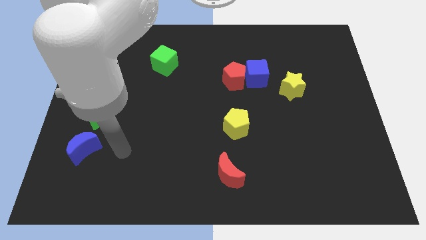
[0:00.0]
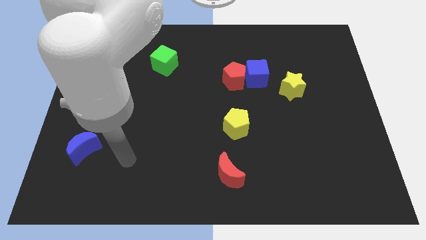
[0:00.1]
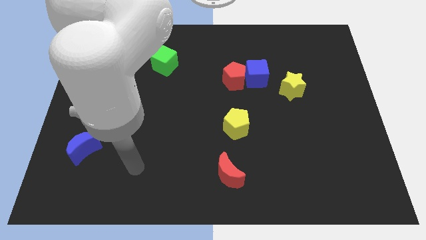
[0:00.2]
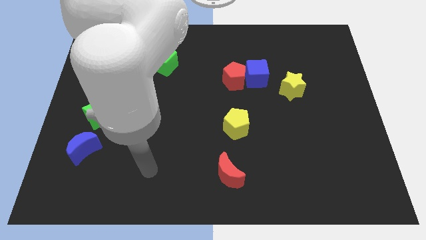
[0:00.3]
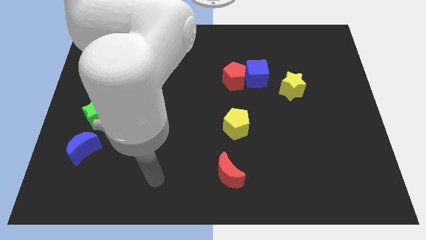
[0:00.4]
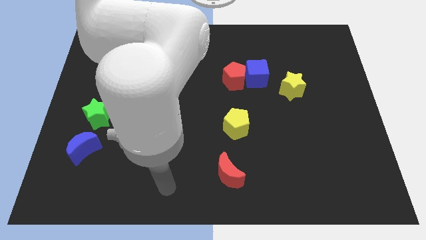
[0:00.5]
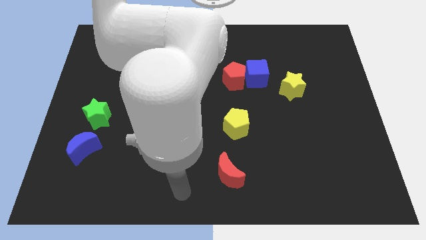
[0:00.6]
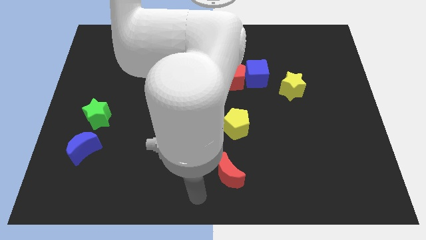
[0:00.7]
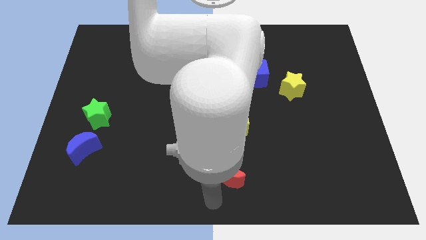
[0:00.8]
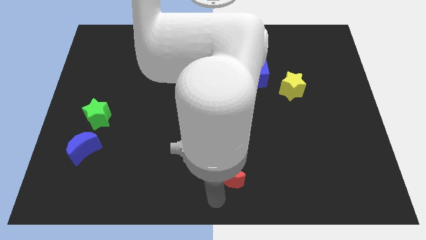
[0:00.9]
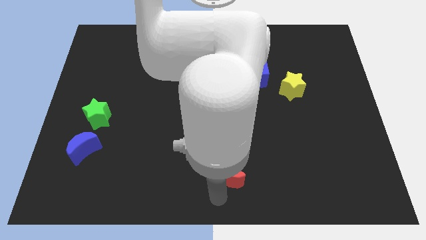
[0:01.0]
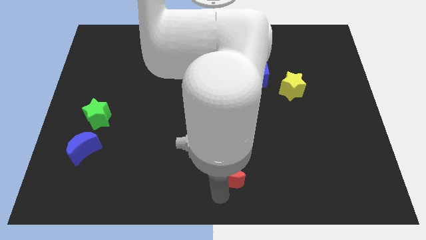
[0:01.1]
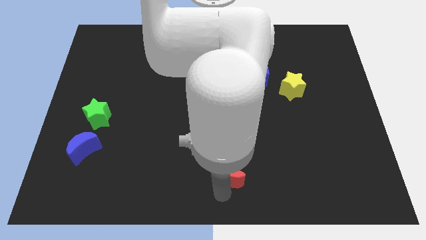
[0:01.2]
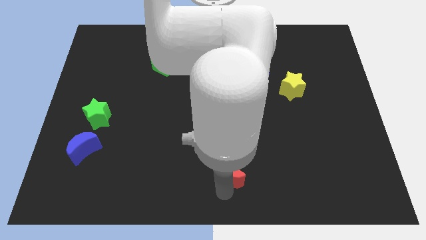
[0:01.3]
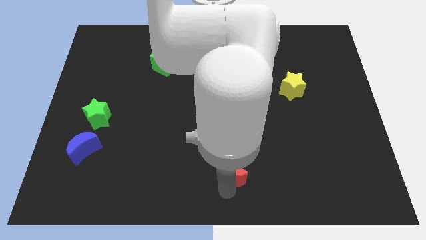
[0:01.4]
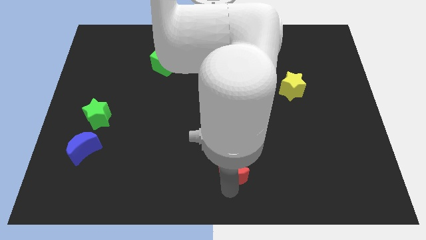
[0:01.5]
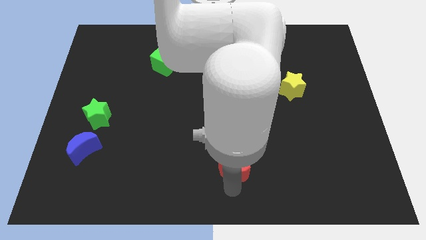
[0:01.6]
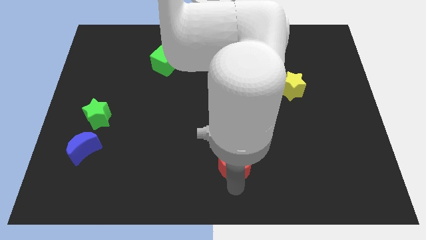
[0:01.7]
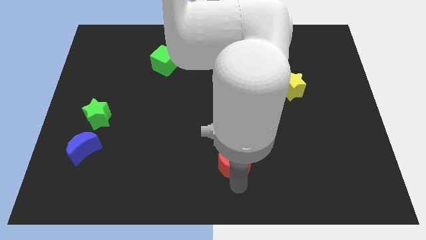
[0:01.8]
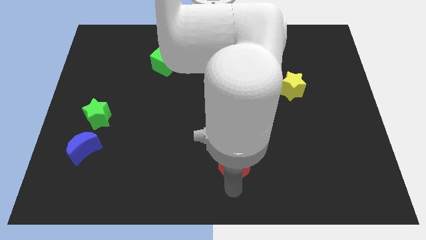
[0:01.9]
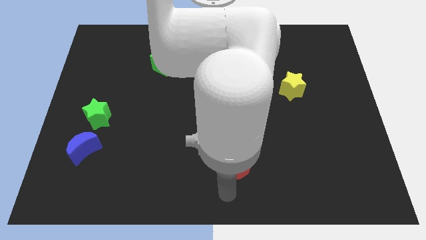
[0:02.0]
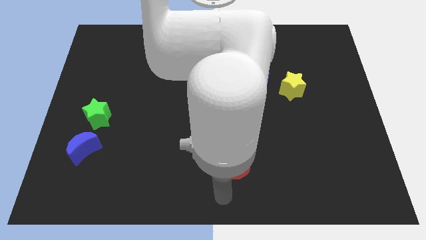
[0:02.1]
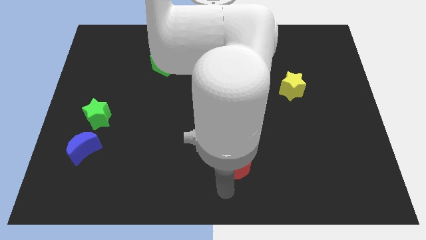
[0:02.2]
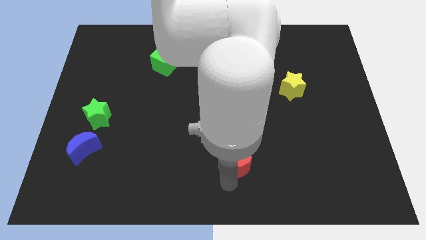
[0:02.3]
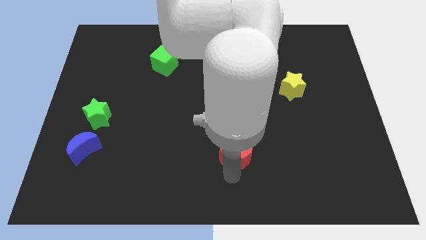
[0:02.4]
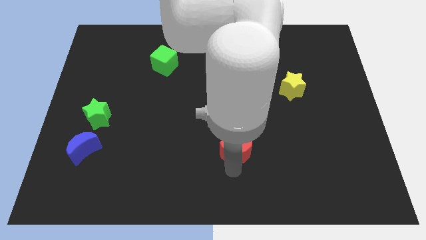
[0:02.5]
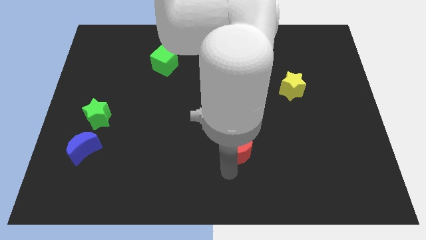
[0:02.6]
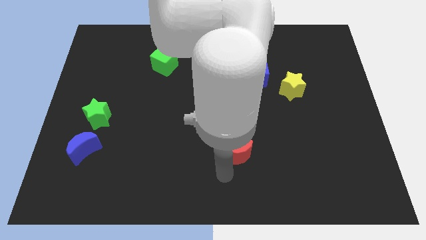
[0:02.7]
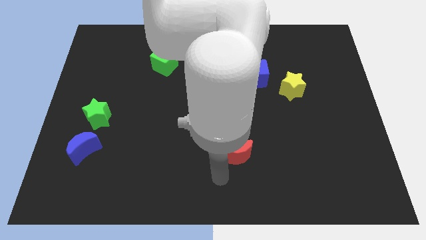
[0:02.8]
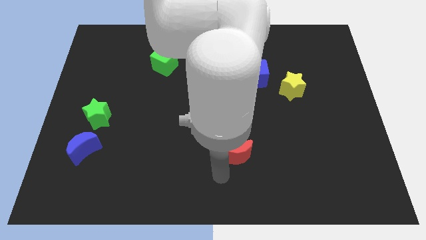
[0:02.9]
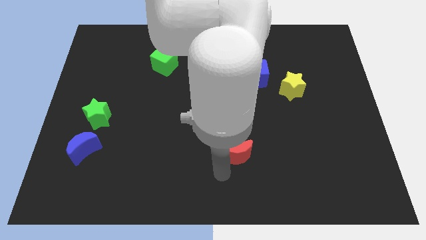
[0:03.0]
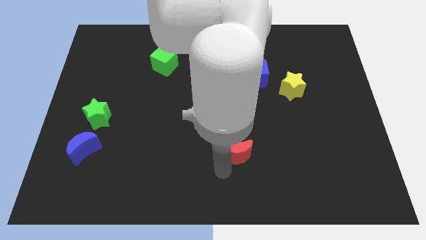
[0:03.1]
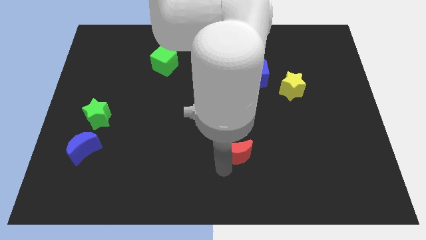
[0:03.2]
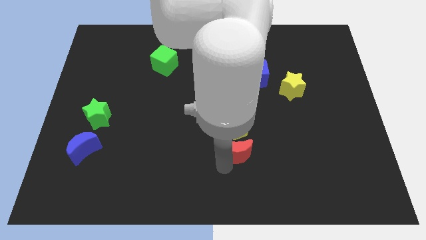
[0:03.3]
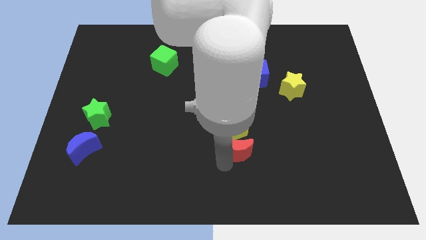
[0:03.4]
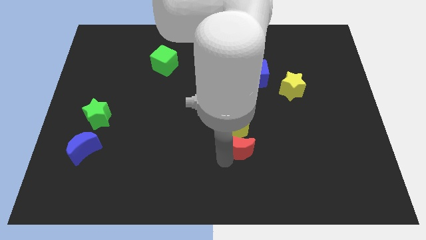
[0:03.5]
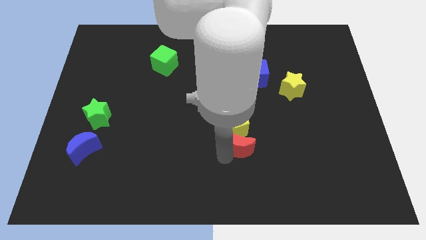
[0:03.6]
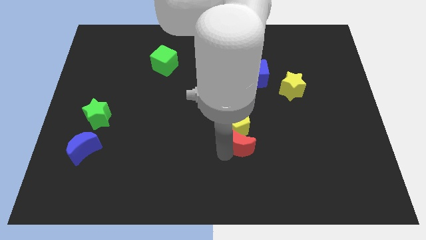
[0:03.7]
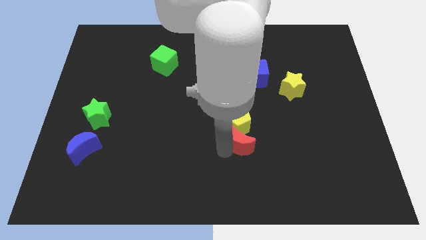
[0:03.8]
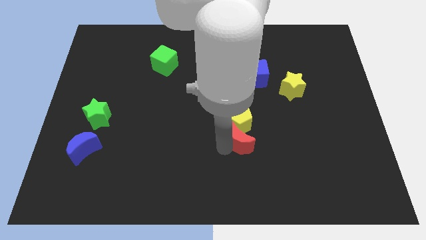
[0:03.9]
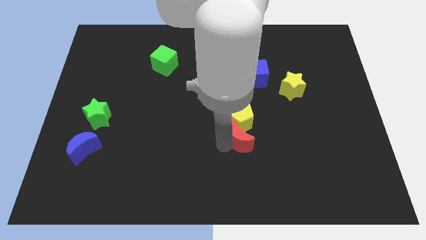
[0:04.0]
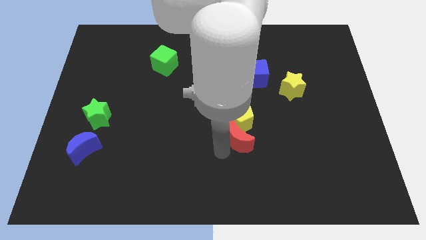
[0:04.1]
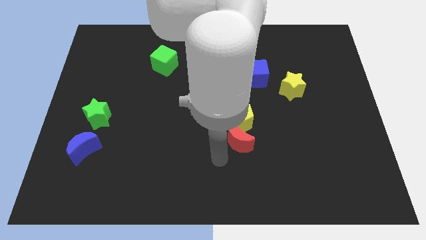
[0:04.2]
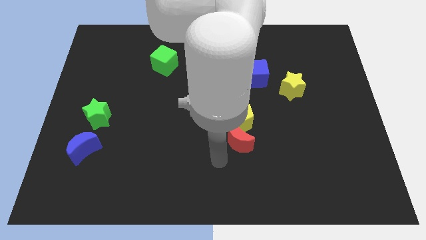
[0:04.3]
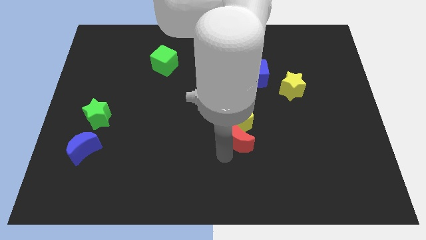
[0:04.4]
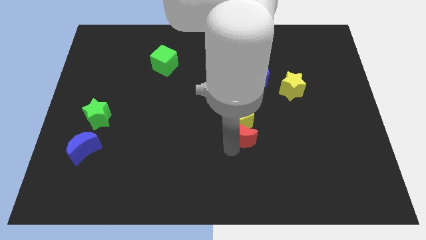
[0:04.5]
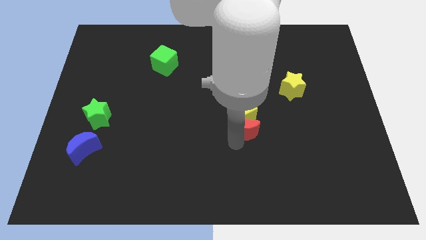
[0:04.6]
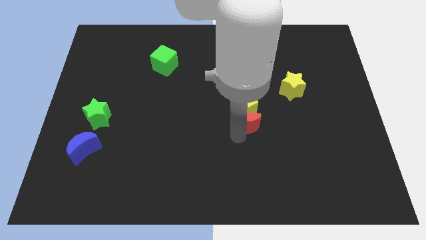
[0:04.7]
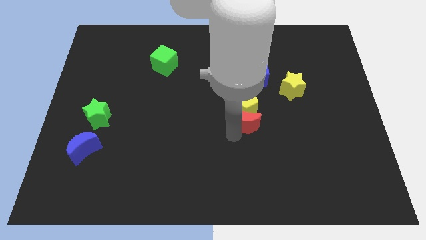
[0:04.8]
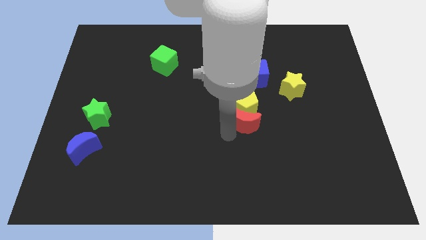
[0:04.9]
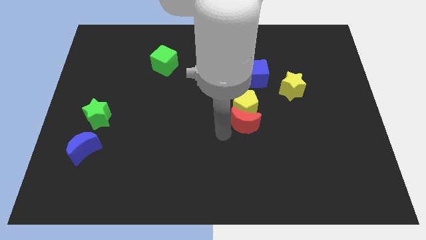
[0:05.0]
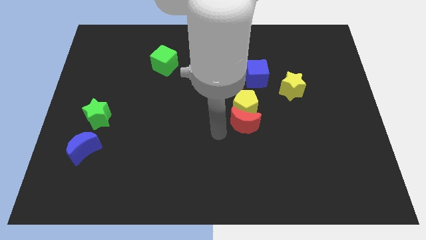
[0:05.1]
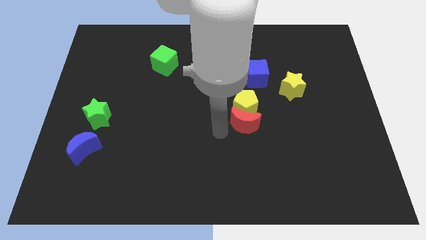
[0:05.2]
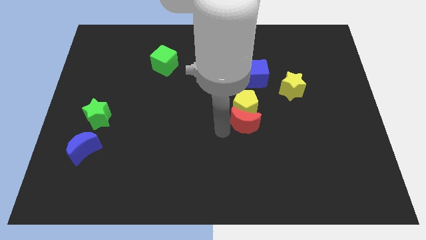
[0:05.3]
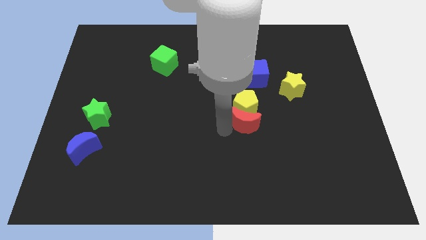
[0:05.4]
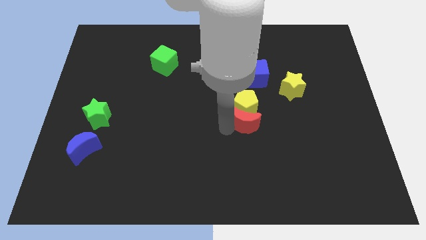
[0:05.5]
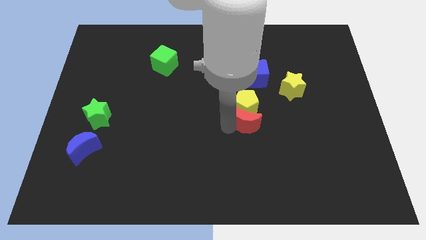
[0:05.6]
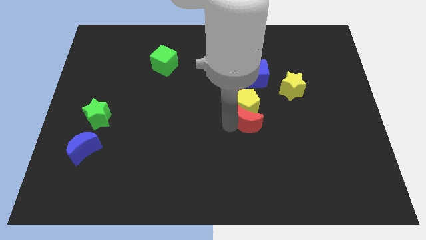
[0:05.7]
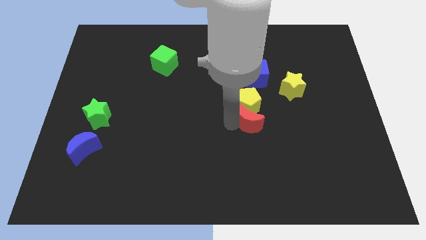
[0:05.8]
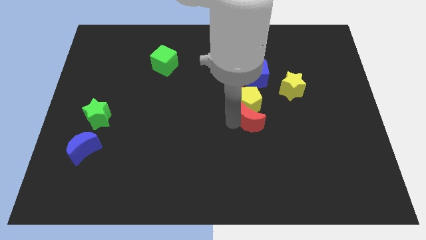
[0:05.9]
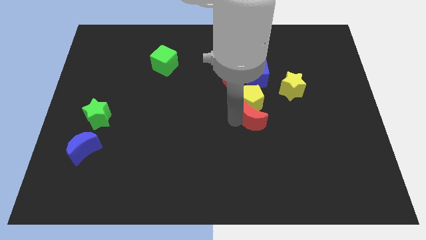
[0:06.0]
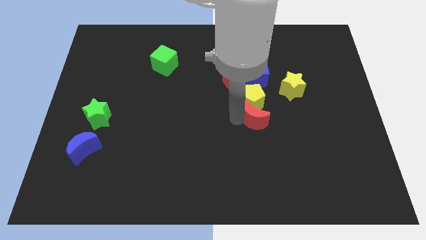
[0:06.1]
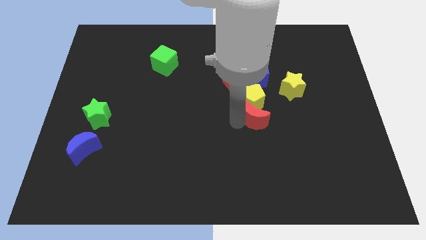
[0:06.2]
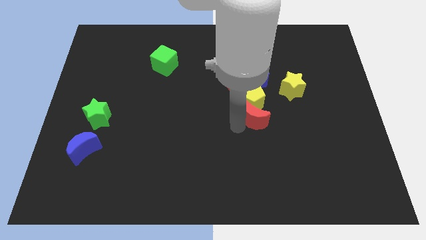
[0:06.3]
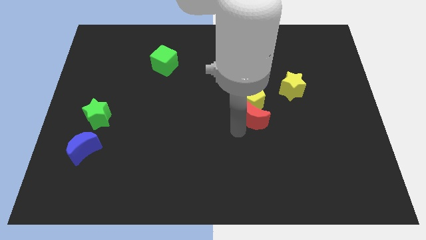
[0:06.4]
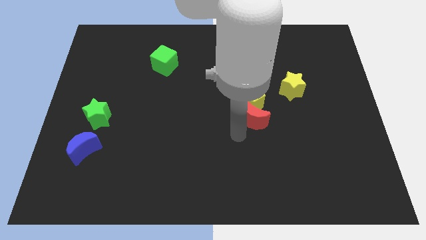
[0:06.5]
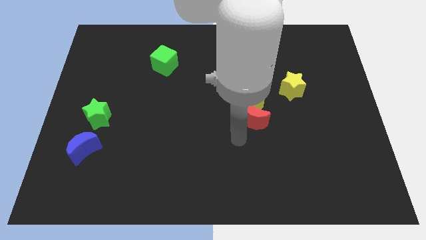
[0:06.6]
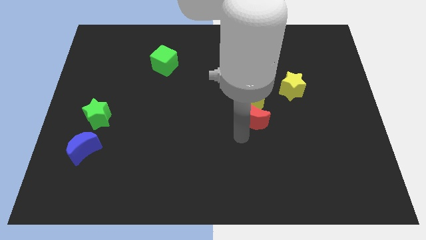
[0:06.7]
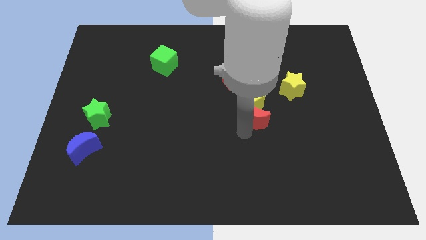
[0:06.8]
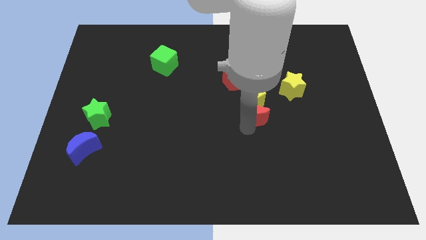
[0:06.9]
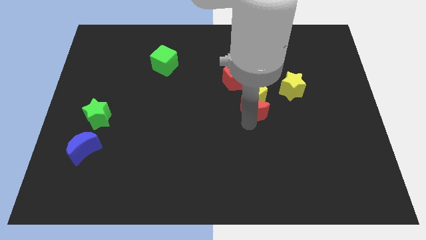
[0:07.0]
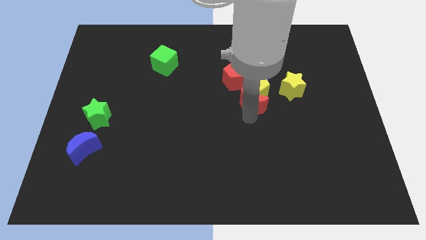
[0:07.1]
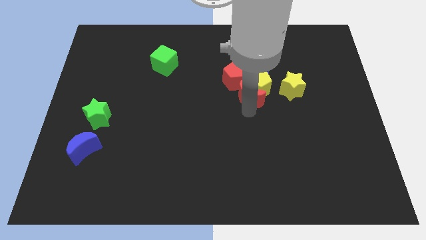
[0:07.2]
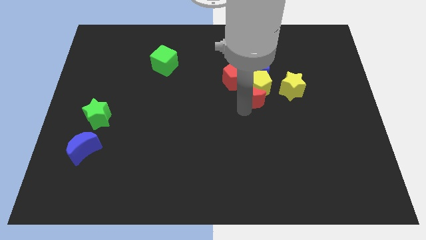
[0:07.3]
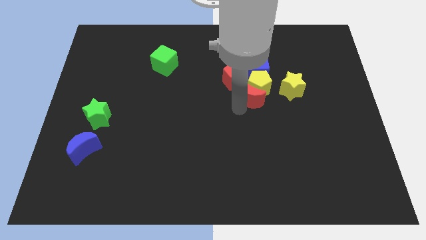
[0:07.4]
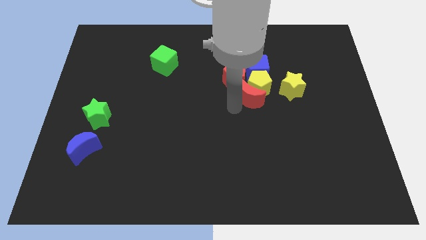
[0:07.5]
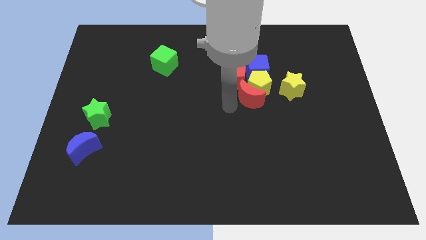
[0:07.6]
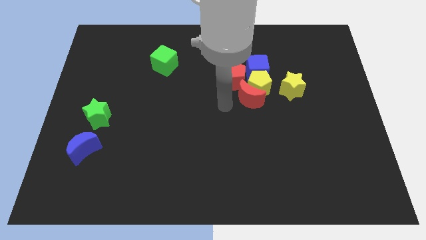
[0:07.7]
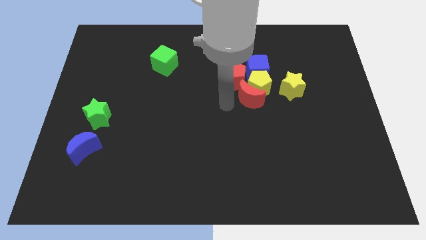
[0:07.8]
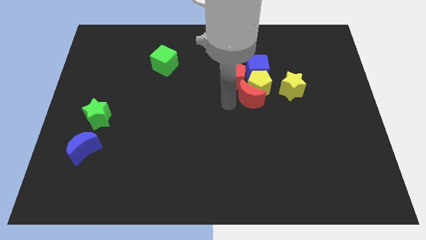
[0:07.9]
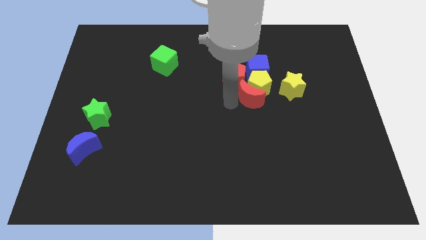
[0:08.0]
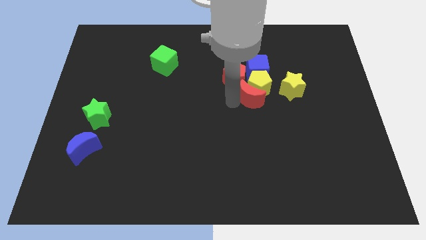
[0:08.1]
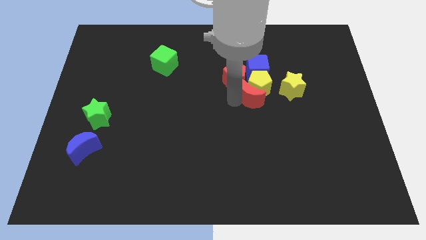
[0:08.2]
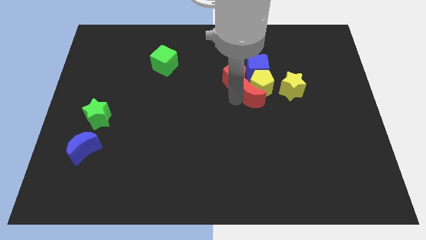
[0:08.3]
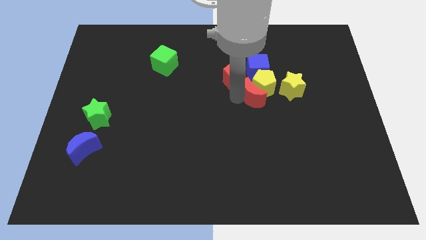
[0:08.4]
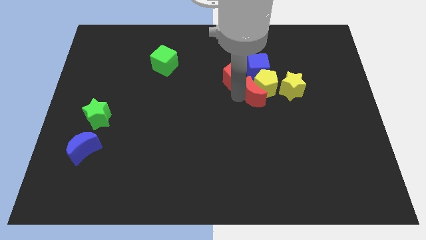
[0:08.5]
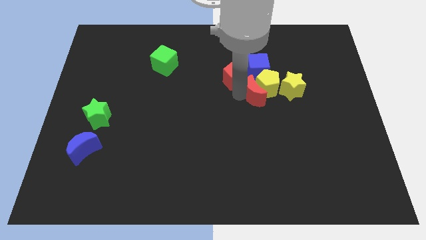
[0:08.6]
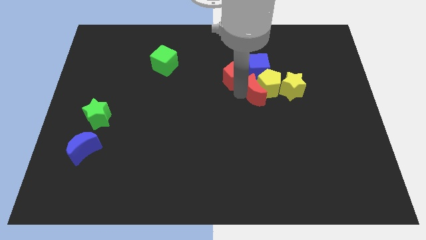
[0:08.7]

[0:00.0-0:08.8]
push the red moon right of the red pentagon
